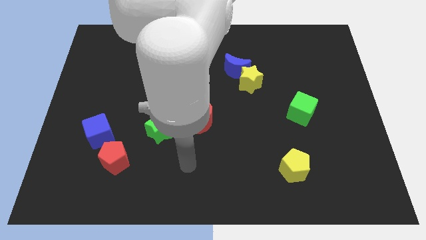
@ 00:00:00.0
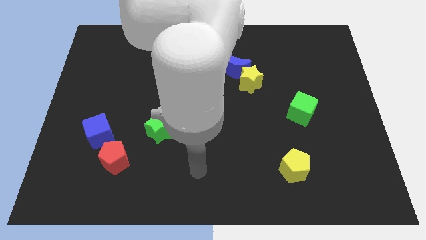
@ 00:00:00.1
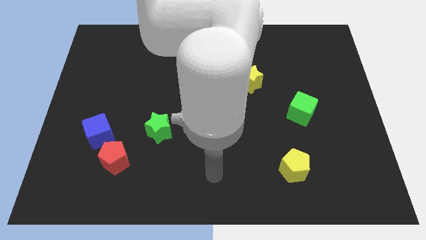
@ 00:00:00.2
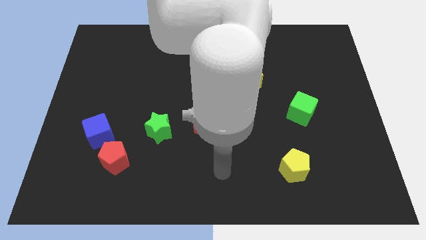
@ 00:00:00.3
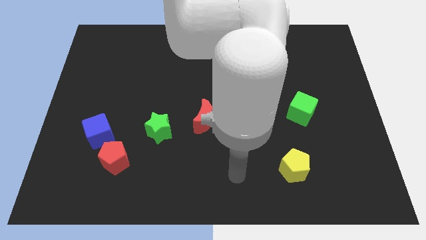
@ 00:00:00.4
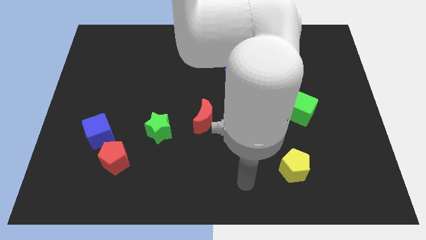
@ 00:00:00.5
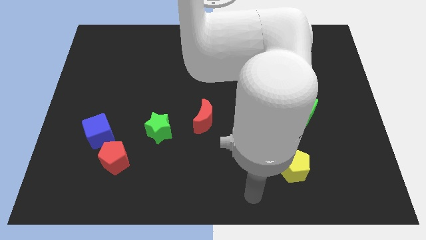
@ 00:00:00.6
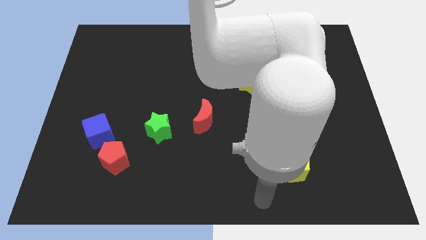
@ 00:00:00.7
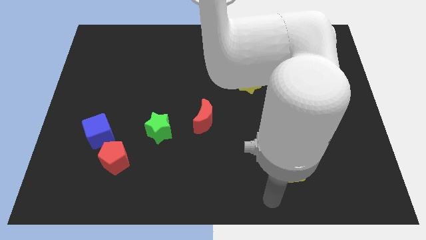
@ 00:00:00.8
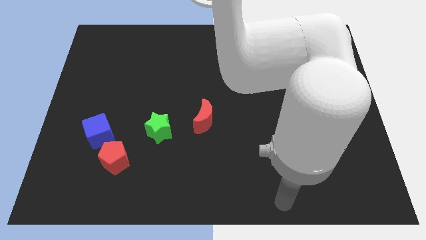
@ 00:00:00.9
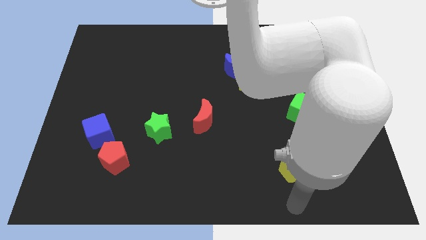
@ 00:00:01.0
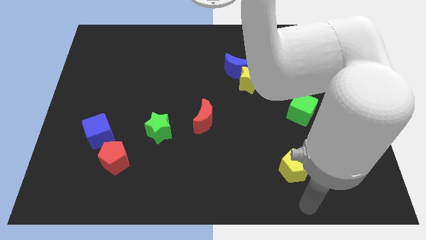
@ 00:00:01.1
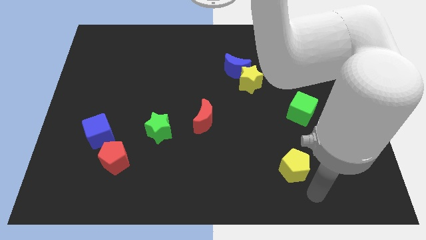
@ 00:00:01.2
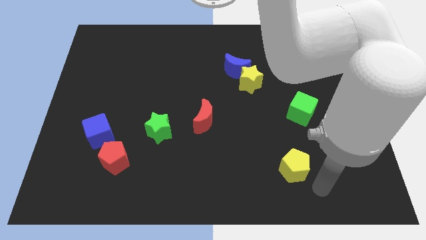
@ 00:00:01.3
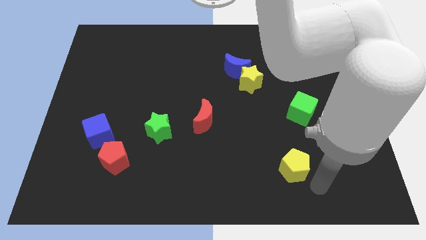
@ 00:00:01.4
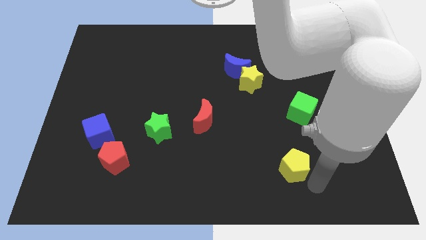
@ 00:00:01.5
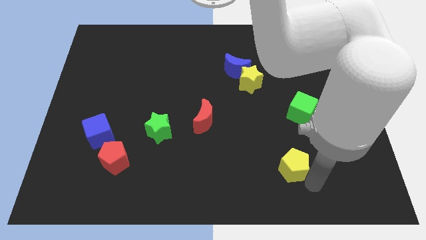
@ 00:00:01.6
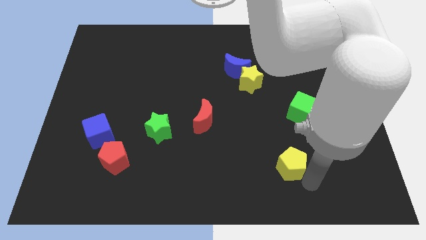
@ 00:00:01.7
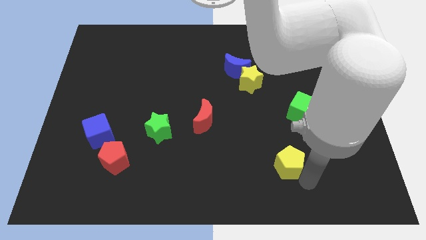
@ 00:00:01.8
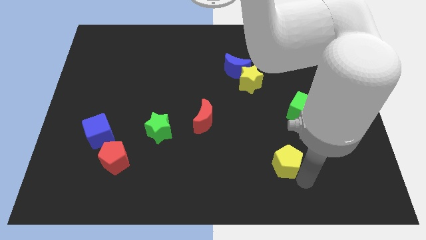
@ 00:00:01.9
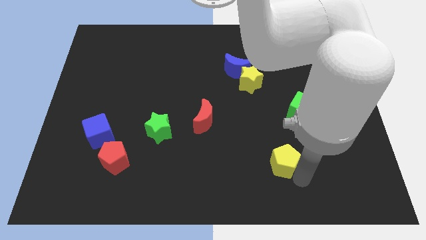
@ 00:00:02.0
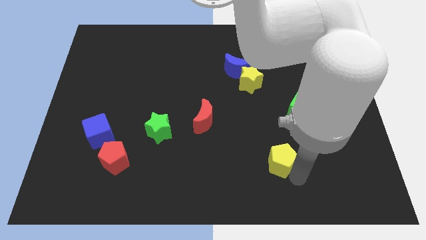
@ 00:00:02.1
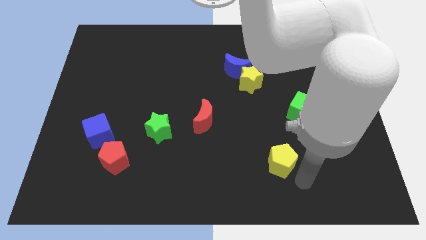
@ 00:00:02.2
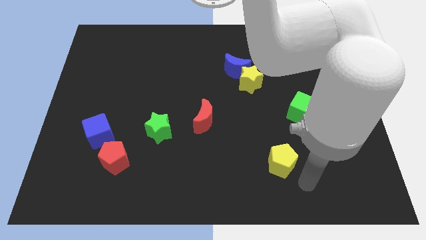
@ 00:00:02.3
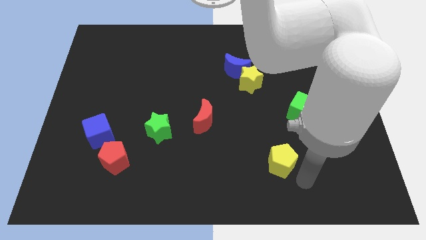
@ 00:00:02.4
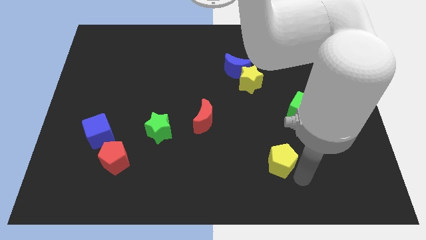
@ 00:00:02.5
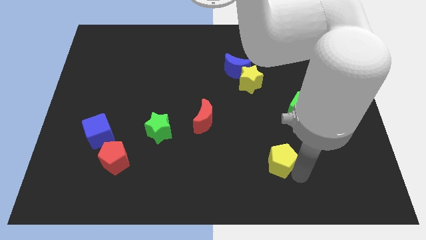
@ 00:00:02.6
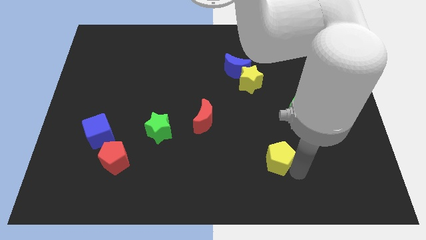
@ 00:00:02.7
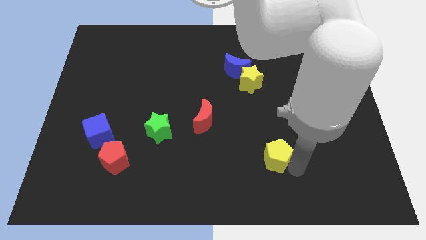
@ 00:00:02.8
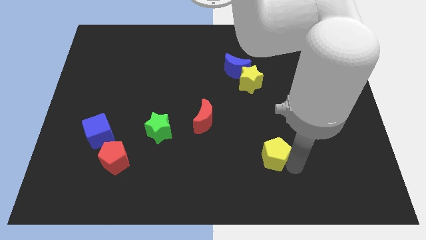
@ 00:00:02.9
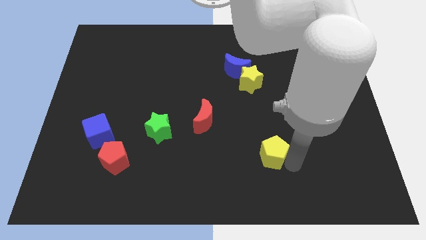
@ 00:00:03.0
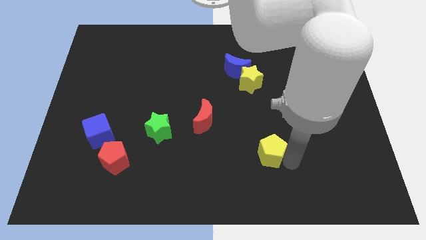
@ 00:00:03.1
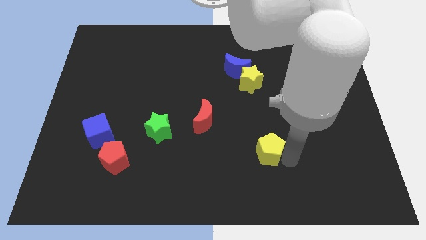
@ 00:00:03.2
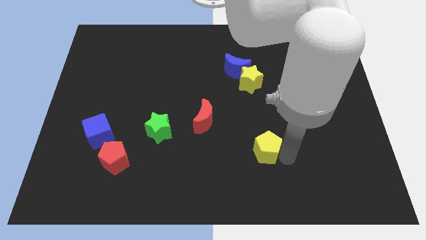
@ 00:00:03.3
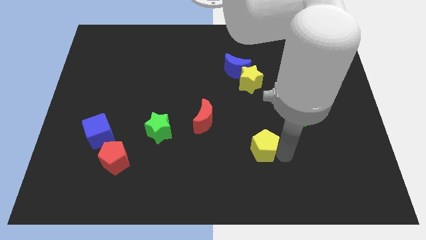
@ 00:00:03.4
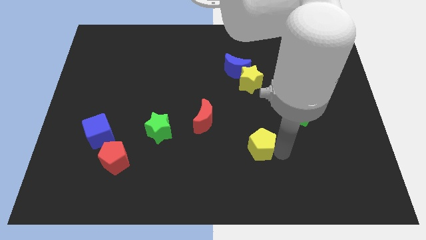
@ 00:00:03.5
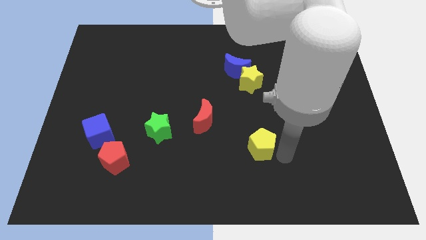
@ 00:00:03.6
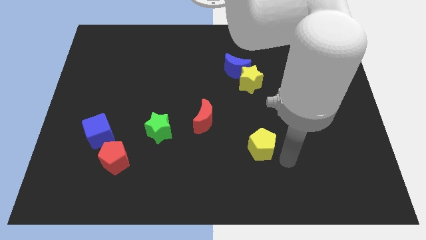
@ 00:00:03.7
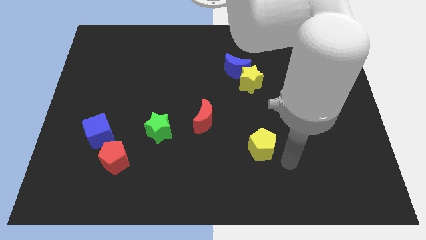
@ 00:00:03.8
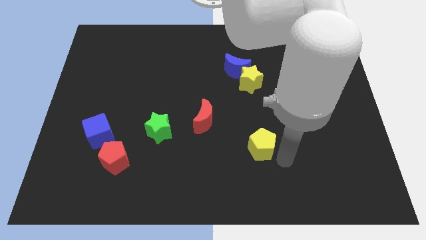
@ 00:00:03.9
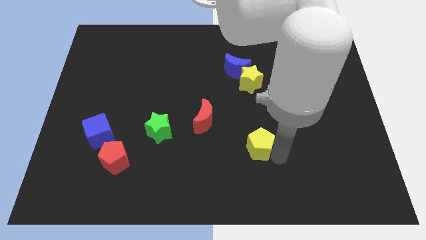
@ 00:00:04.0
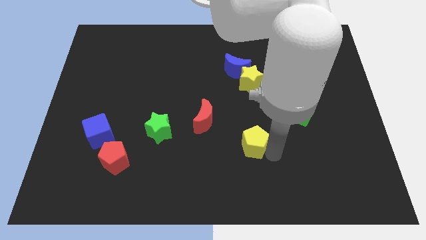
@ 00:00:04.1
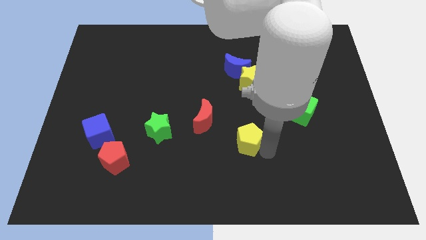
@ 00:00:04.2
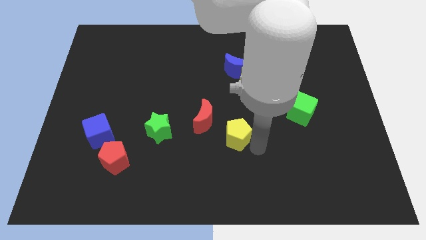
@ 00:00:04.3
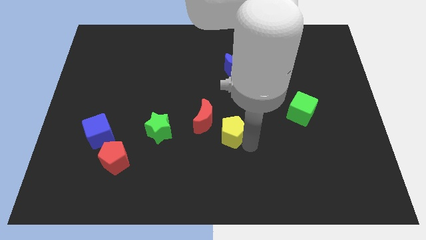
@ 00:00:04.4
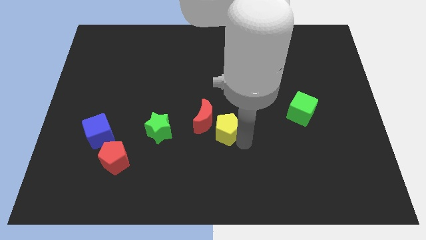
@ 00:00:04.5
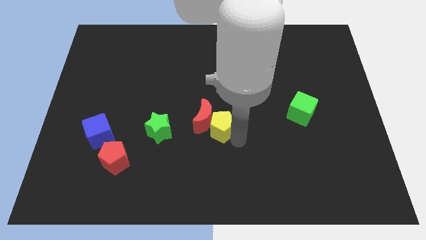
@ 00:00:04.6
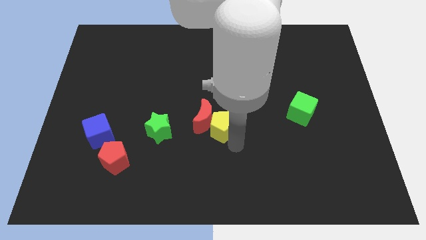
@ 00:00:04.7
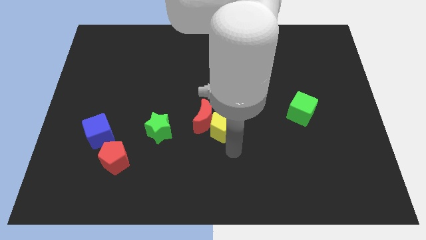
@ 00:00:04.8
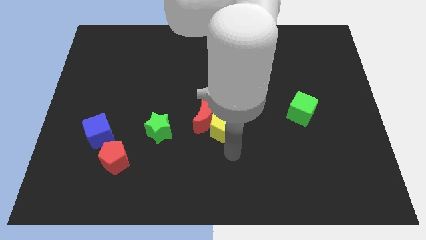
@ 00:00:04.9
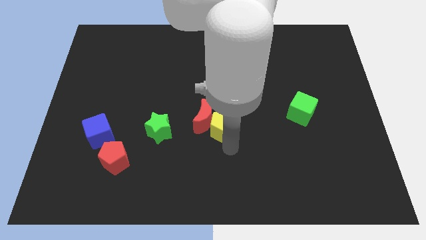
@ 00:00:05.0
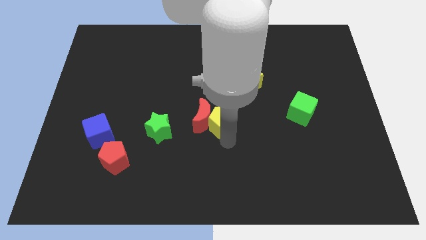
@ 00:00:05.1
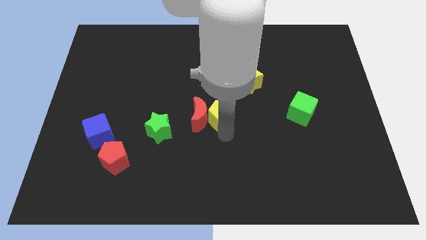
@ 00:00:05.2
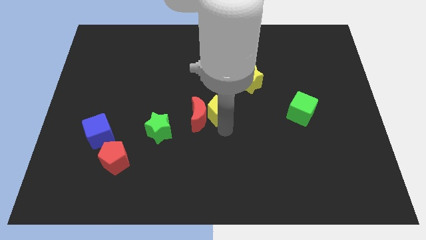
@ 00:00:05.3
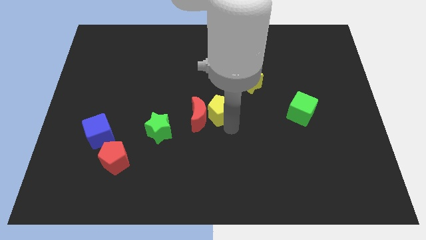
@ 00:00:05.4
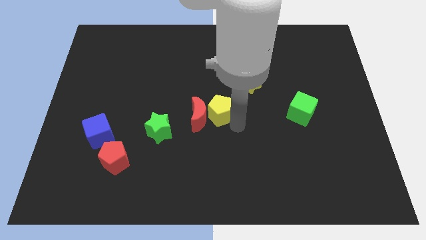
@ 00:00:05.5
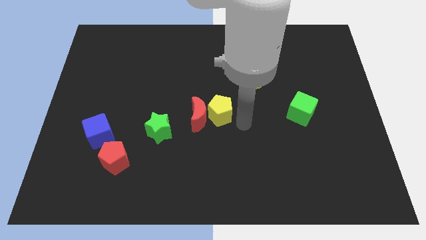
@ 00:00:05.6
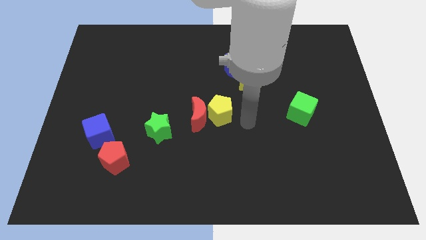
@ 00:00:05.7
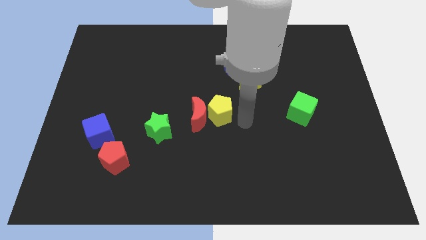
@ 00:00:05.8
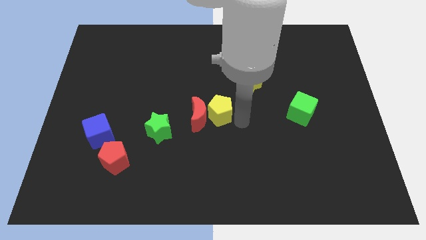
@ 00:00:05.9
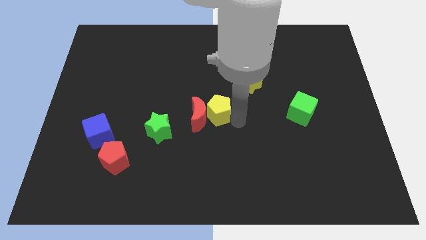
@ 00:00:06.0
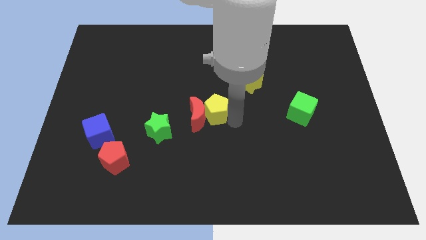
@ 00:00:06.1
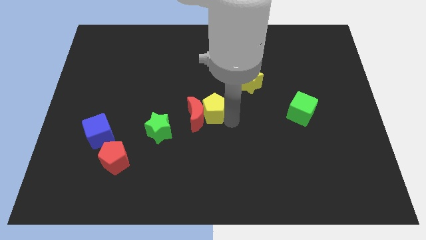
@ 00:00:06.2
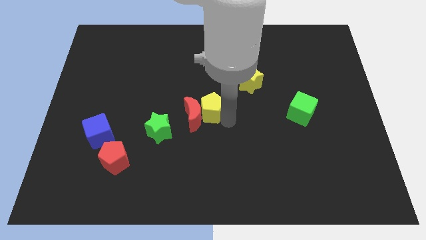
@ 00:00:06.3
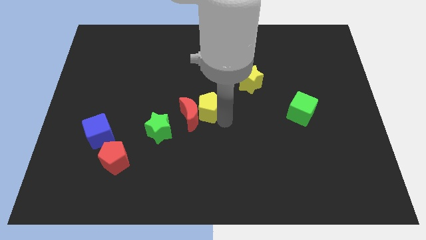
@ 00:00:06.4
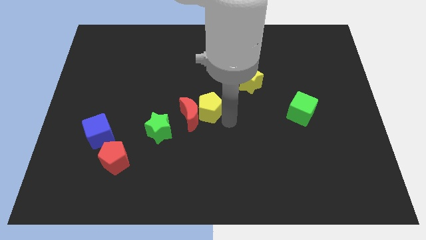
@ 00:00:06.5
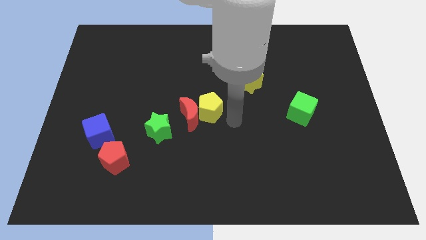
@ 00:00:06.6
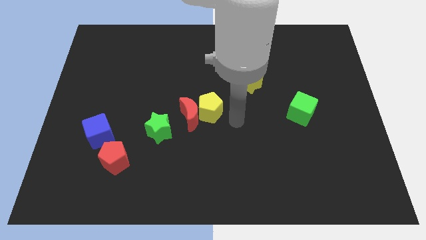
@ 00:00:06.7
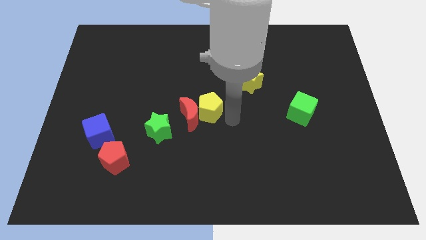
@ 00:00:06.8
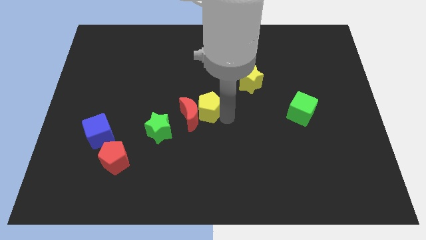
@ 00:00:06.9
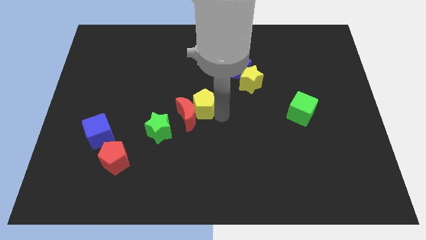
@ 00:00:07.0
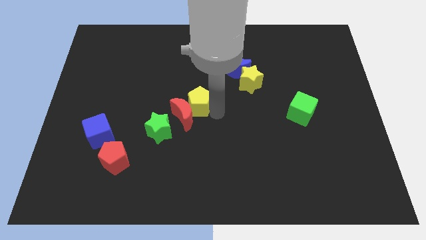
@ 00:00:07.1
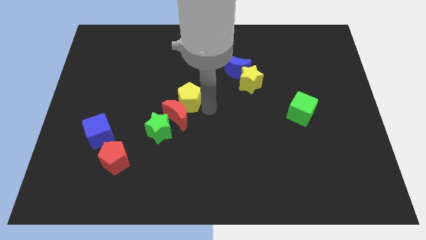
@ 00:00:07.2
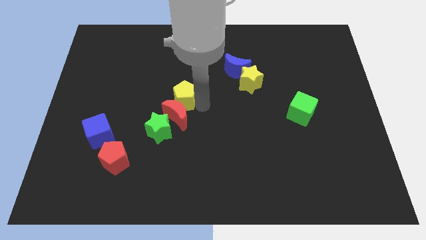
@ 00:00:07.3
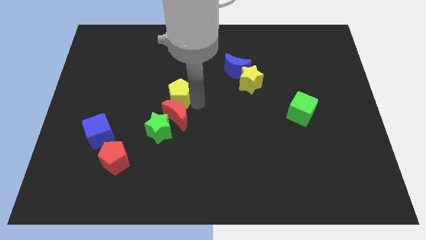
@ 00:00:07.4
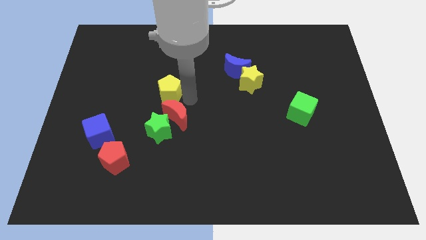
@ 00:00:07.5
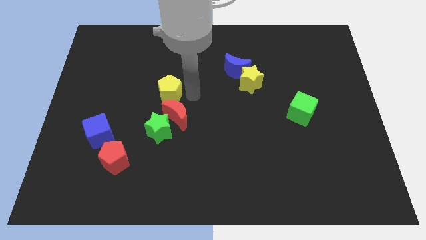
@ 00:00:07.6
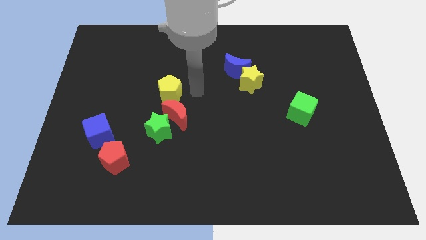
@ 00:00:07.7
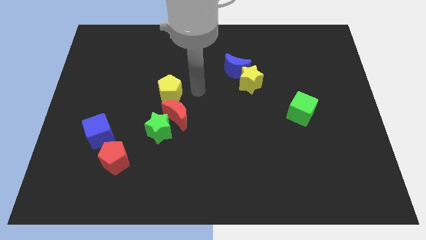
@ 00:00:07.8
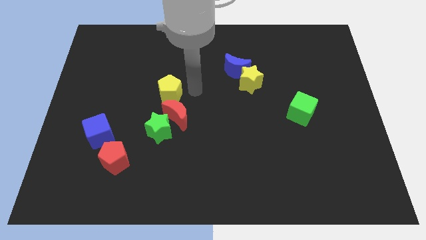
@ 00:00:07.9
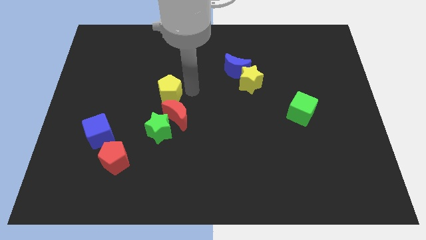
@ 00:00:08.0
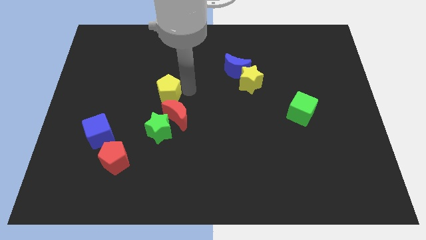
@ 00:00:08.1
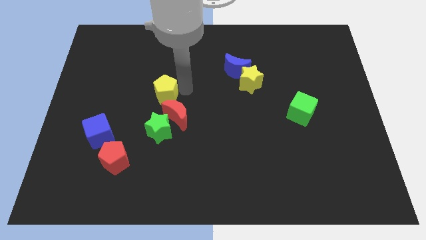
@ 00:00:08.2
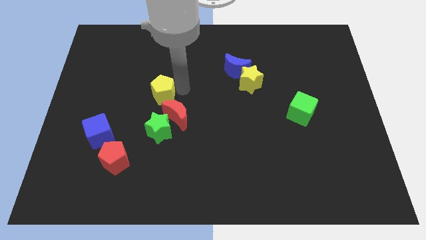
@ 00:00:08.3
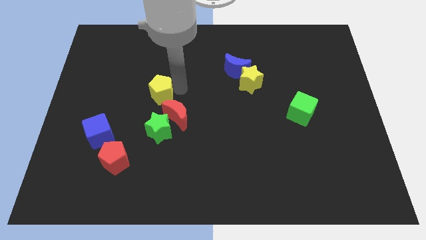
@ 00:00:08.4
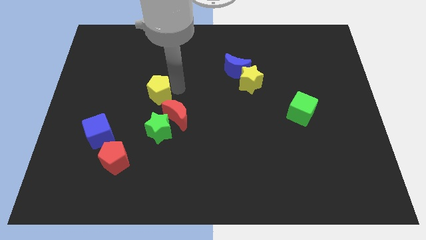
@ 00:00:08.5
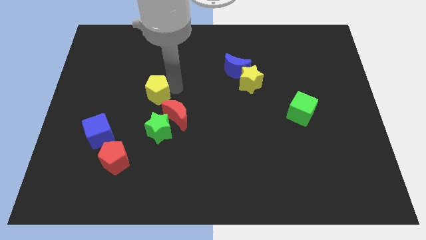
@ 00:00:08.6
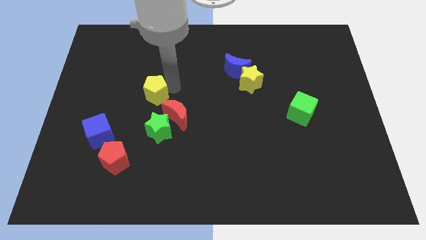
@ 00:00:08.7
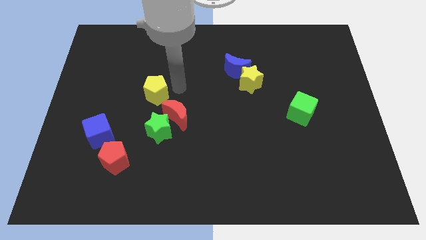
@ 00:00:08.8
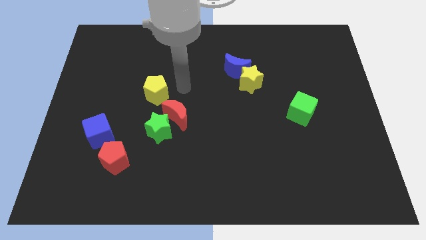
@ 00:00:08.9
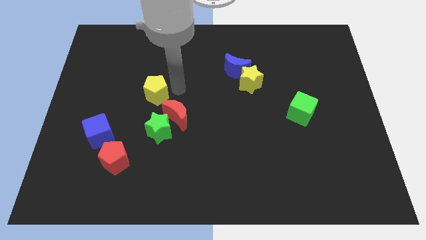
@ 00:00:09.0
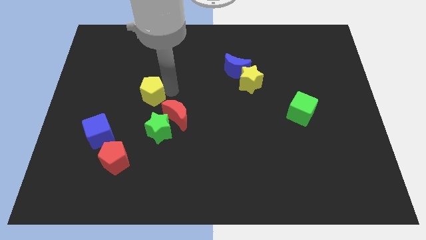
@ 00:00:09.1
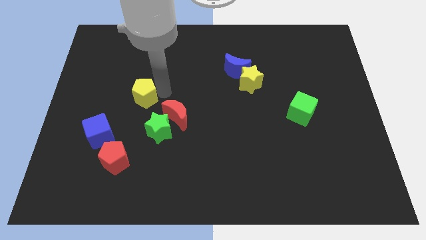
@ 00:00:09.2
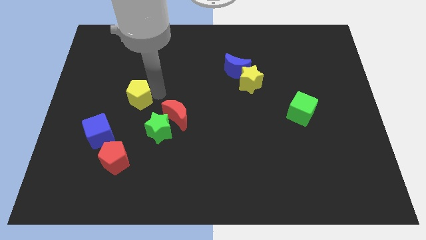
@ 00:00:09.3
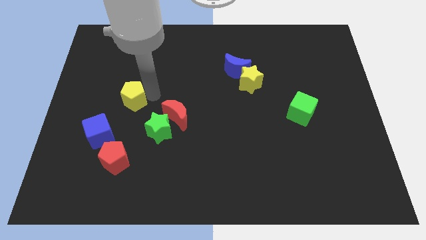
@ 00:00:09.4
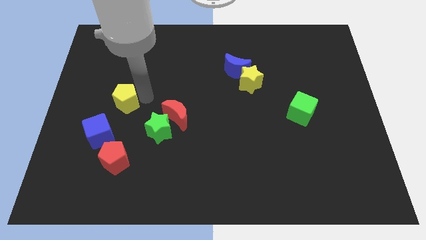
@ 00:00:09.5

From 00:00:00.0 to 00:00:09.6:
push the yellow pentagon to the top side of the blue cube
